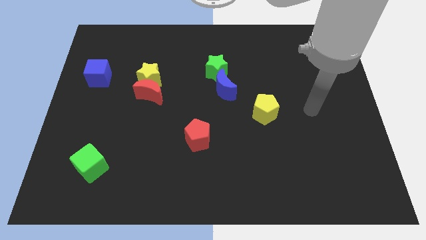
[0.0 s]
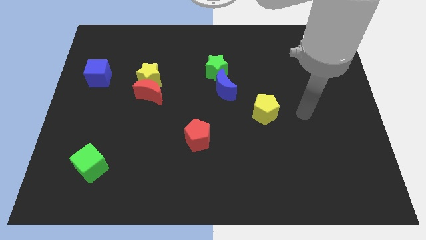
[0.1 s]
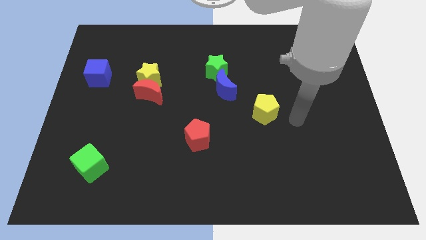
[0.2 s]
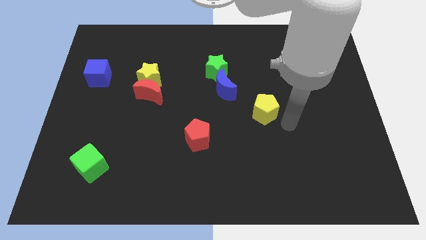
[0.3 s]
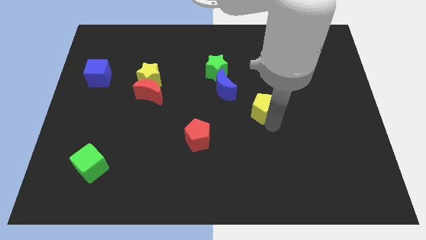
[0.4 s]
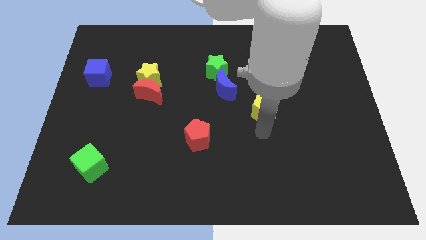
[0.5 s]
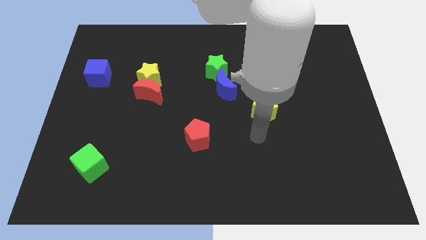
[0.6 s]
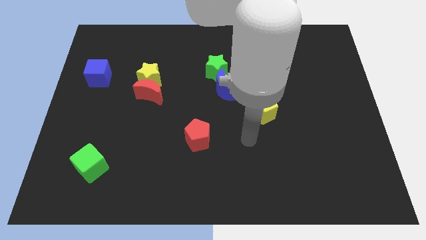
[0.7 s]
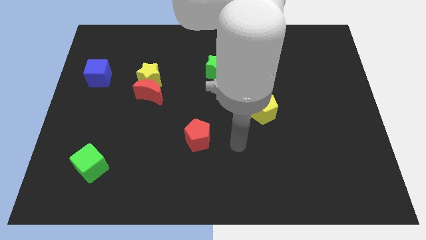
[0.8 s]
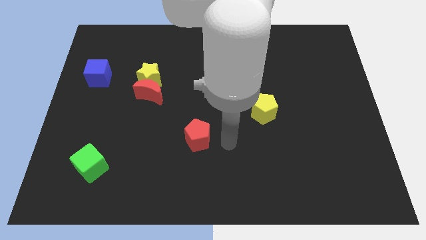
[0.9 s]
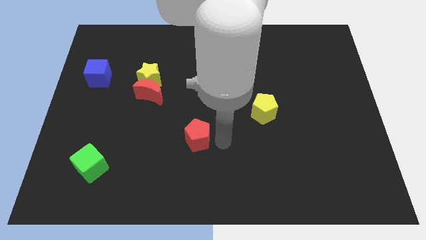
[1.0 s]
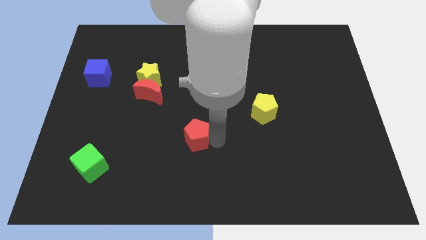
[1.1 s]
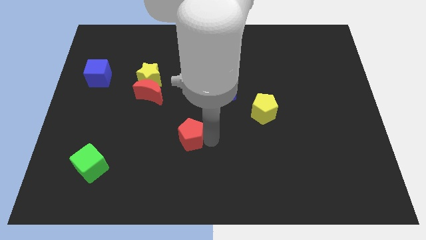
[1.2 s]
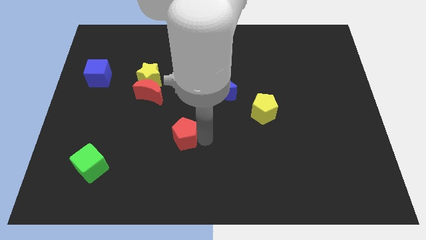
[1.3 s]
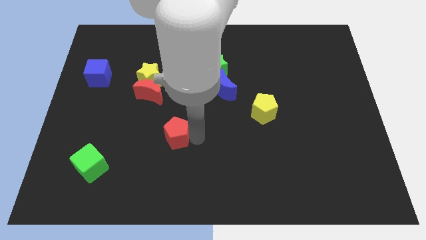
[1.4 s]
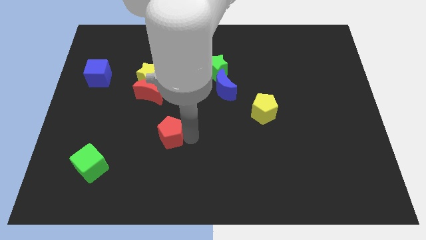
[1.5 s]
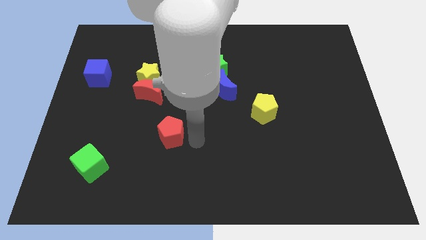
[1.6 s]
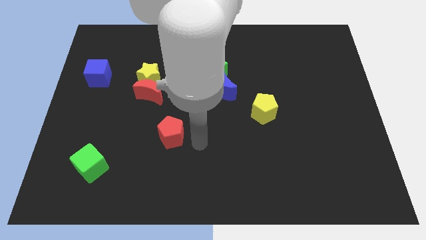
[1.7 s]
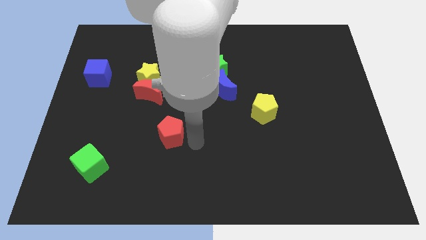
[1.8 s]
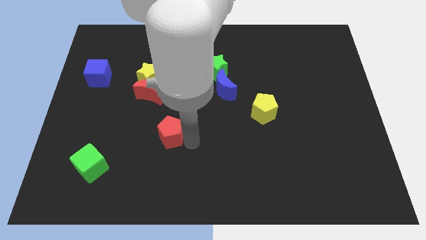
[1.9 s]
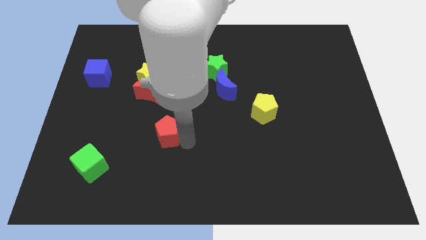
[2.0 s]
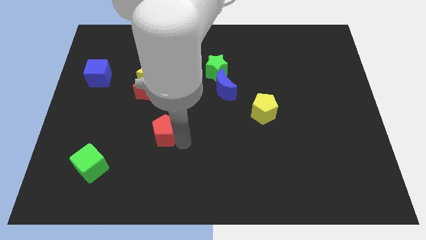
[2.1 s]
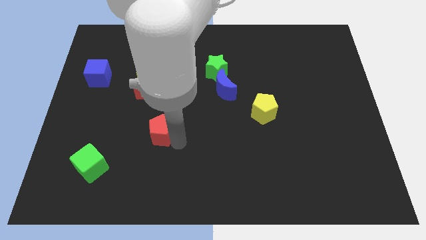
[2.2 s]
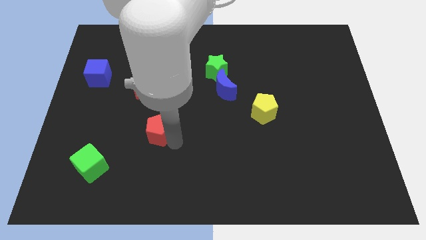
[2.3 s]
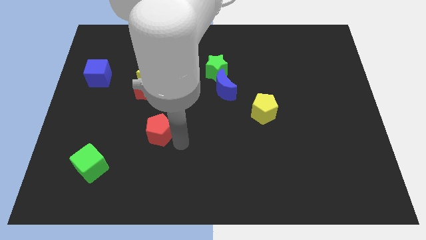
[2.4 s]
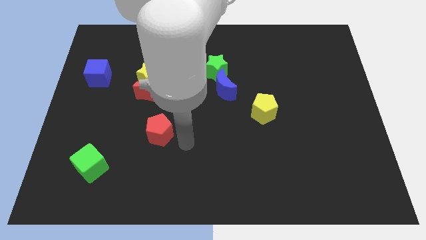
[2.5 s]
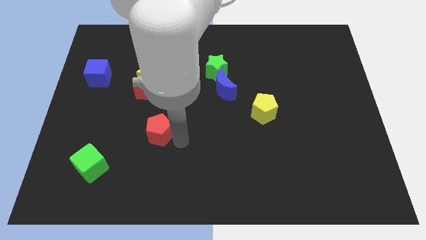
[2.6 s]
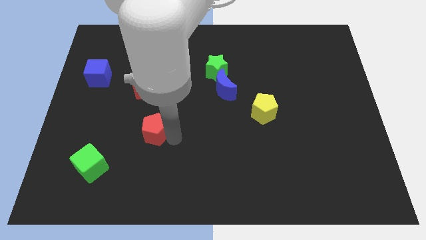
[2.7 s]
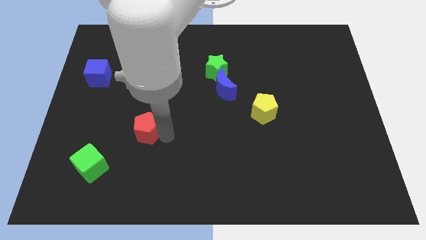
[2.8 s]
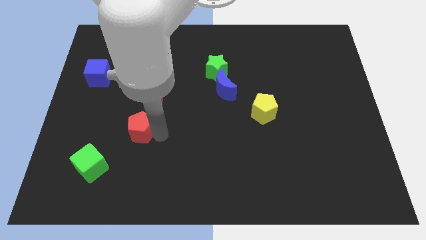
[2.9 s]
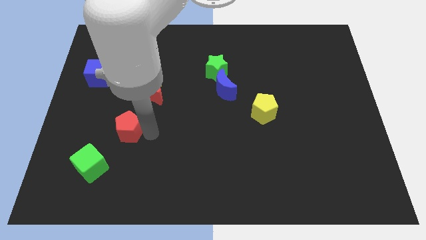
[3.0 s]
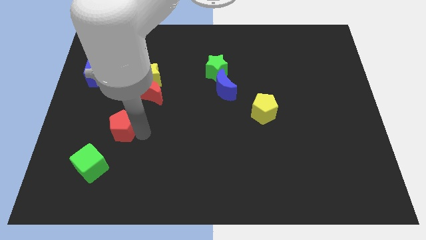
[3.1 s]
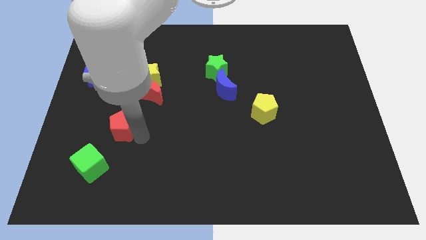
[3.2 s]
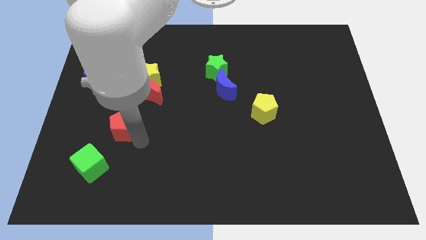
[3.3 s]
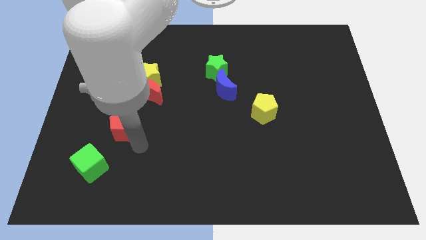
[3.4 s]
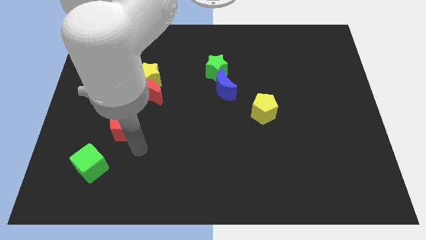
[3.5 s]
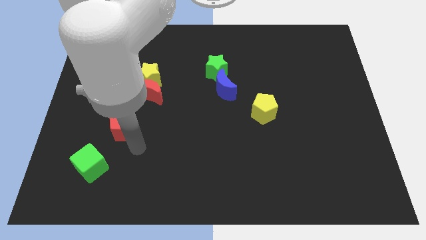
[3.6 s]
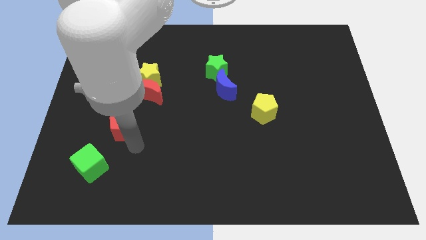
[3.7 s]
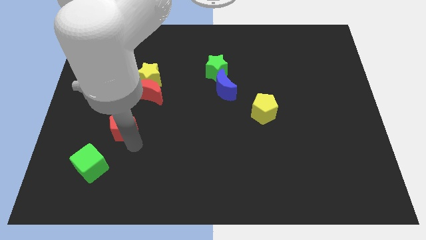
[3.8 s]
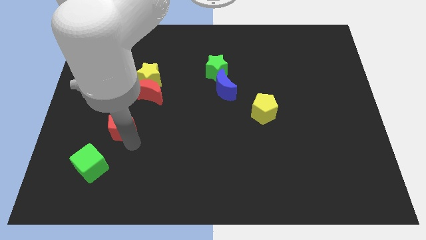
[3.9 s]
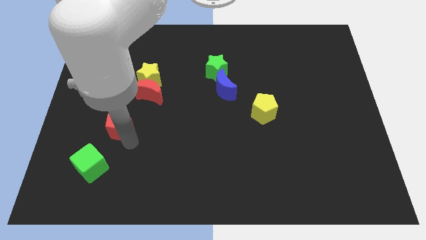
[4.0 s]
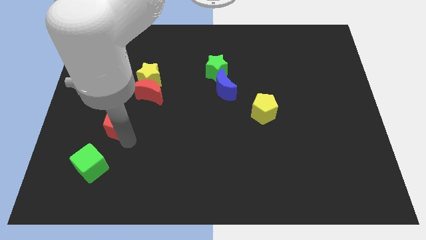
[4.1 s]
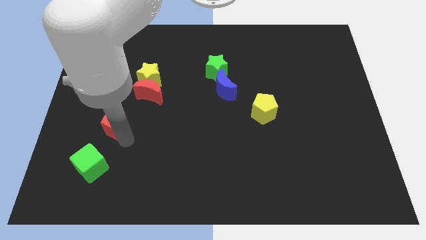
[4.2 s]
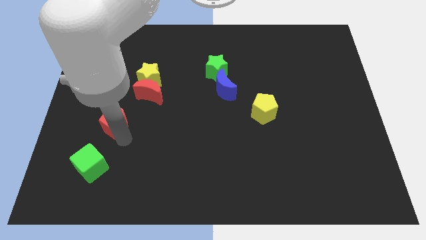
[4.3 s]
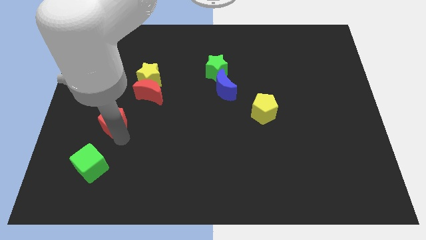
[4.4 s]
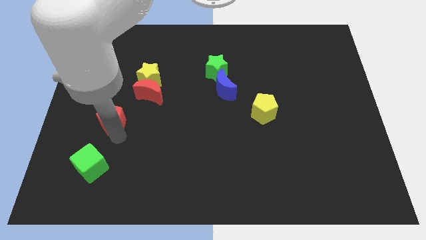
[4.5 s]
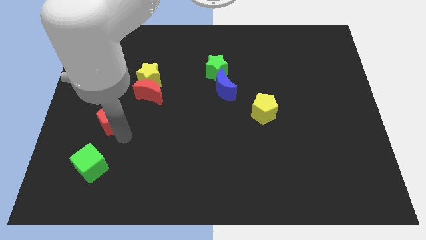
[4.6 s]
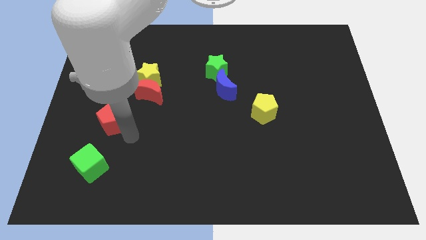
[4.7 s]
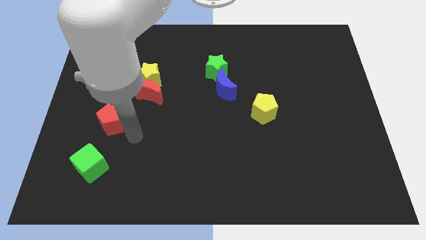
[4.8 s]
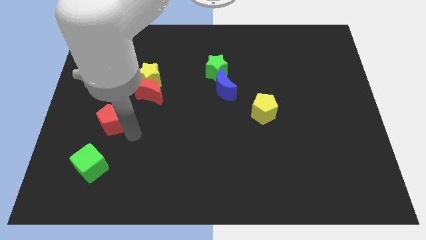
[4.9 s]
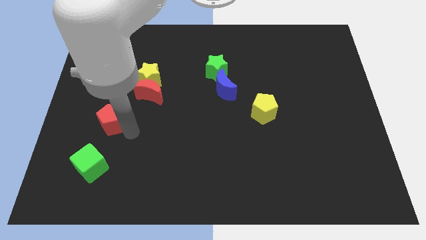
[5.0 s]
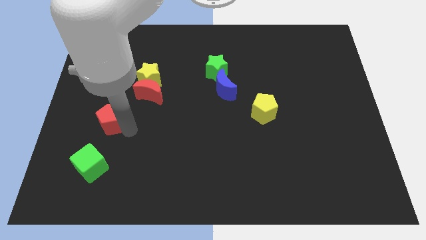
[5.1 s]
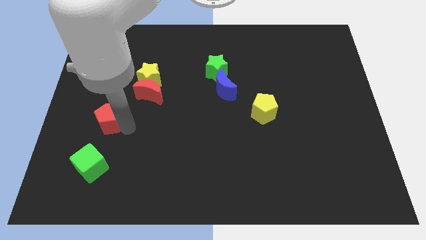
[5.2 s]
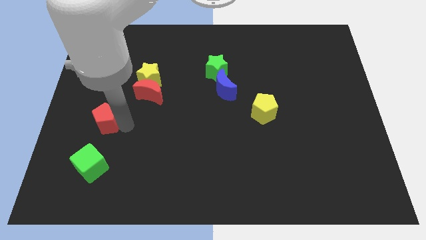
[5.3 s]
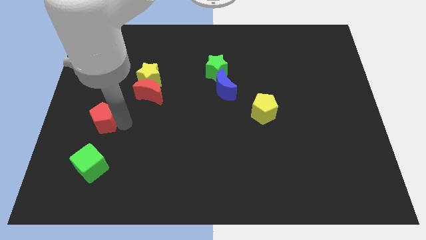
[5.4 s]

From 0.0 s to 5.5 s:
move the red pentagon below the blue cube

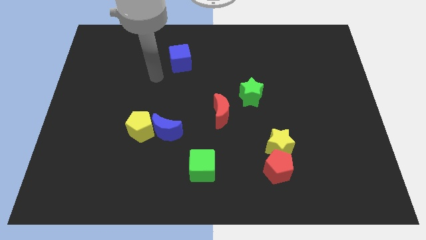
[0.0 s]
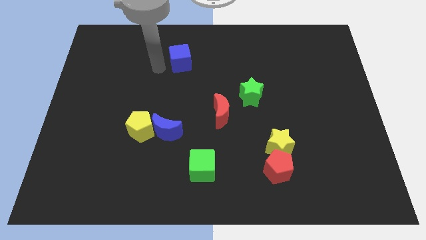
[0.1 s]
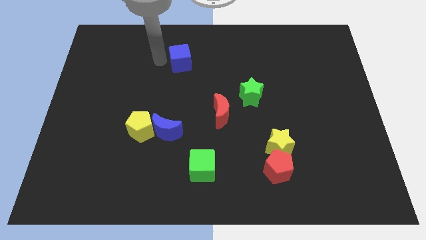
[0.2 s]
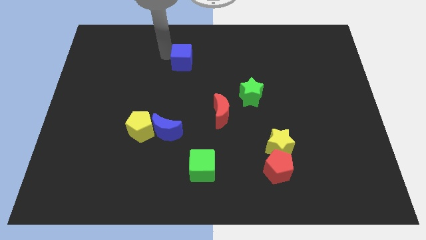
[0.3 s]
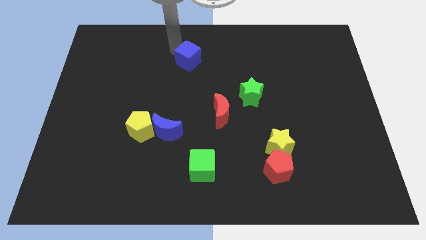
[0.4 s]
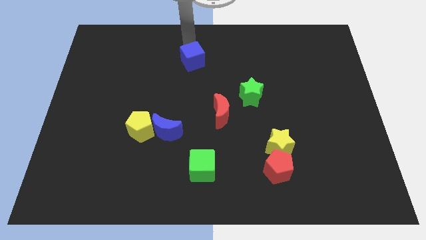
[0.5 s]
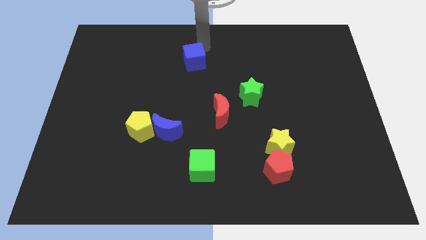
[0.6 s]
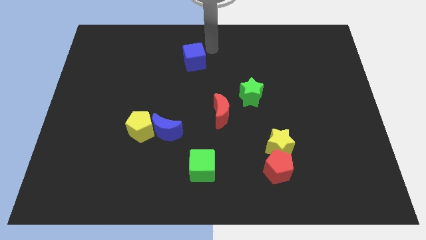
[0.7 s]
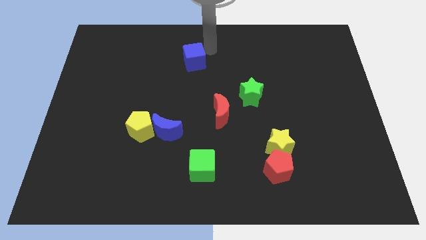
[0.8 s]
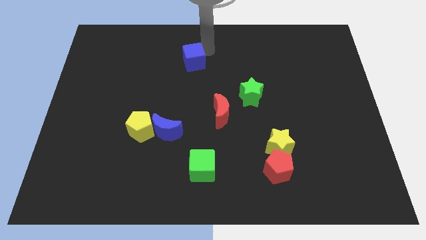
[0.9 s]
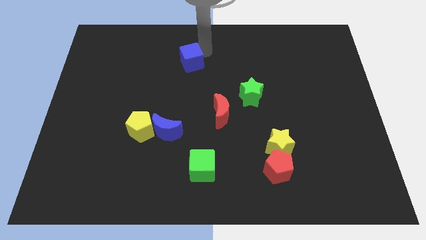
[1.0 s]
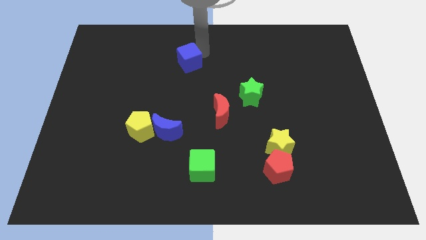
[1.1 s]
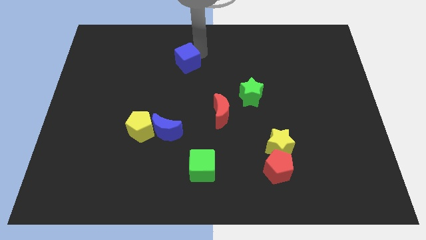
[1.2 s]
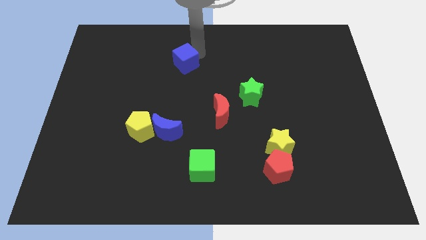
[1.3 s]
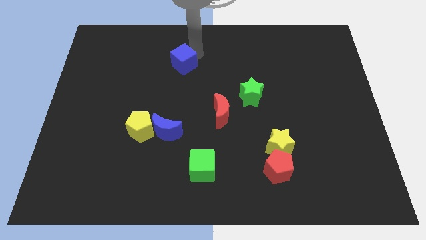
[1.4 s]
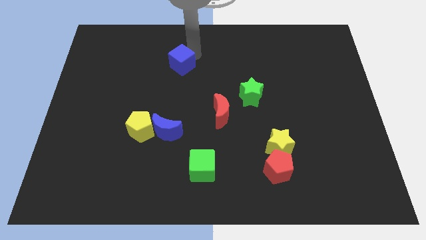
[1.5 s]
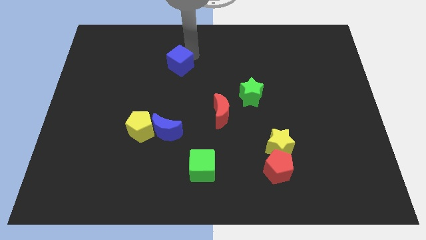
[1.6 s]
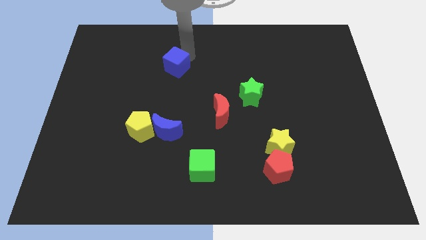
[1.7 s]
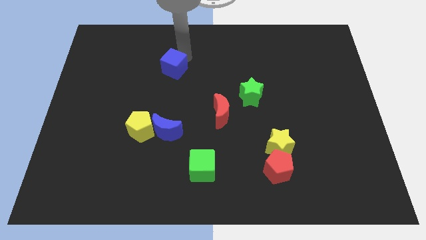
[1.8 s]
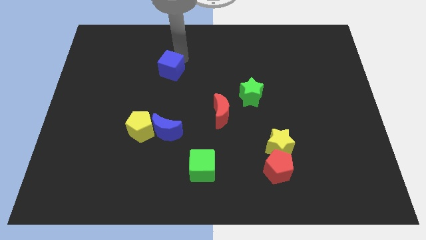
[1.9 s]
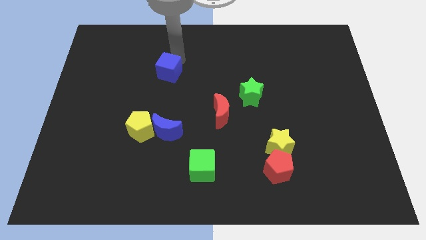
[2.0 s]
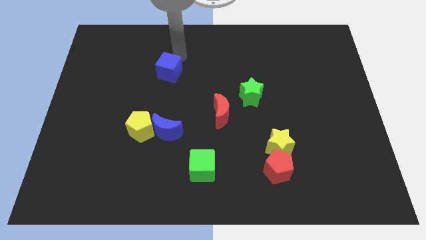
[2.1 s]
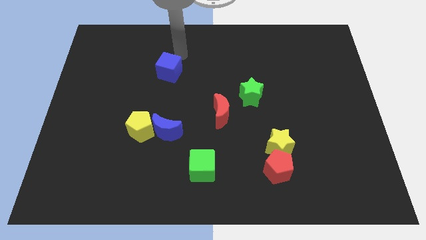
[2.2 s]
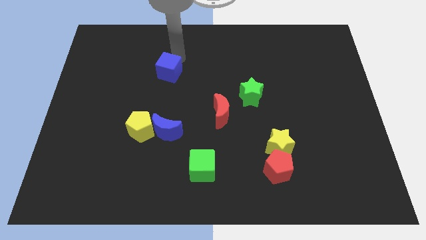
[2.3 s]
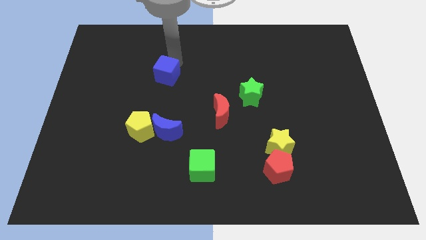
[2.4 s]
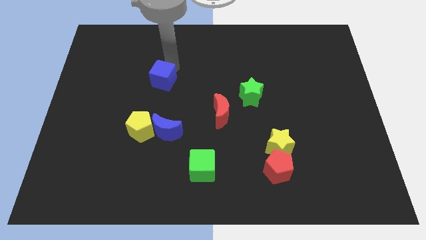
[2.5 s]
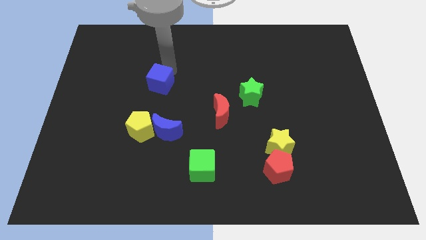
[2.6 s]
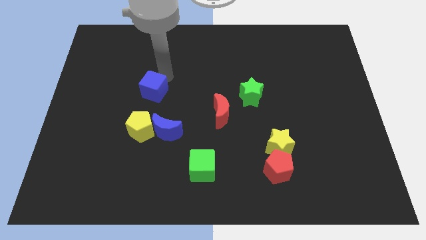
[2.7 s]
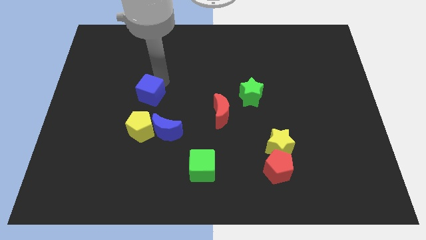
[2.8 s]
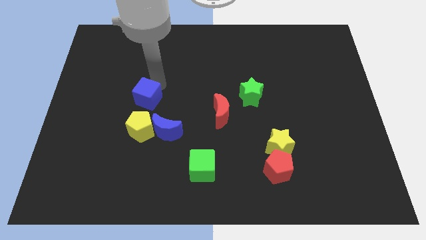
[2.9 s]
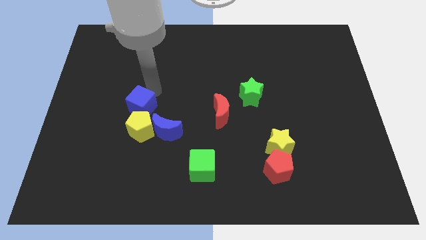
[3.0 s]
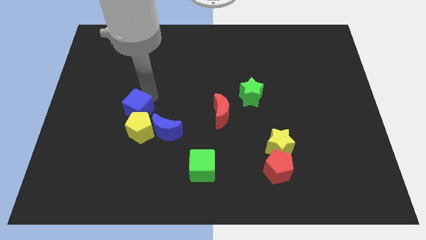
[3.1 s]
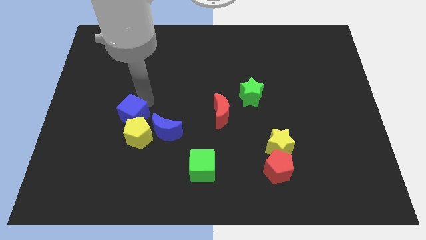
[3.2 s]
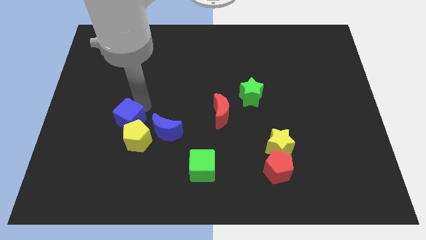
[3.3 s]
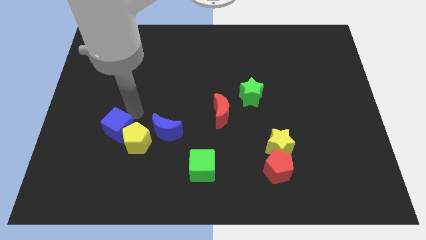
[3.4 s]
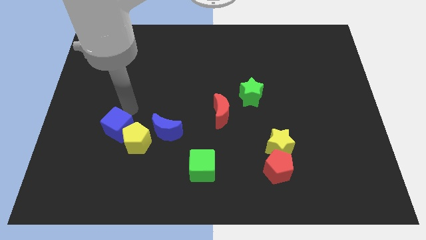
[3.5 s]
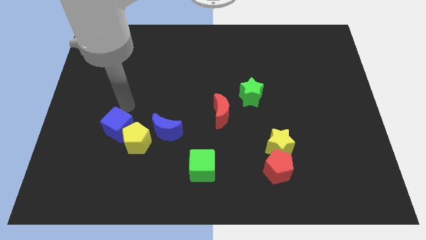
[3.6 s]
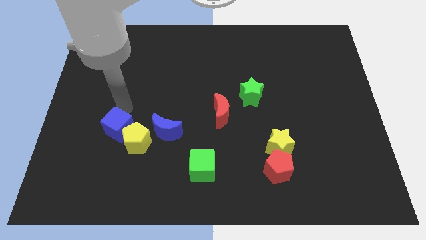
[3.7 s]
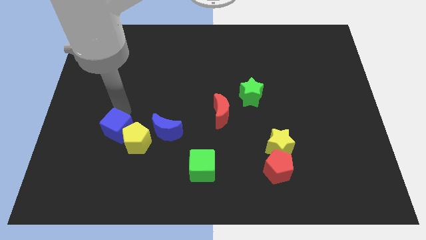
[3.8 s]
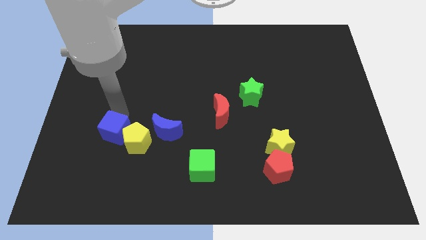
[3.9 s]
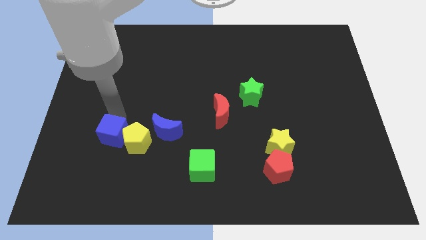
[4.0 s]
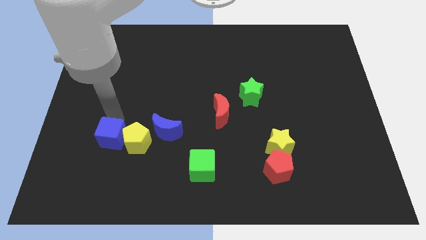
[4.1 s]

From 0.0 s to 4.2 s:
move the blue cube diagonally down and to the left of the yellow pentagon
